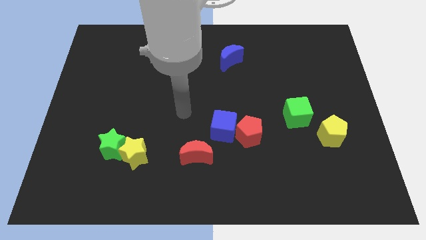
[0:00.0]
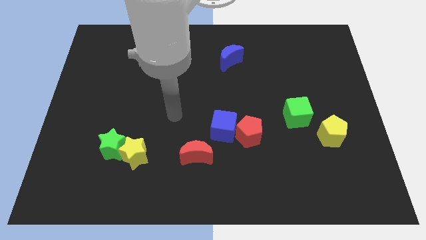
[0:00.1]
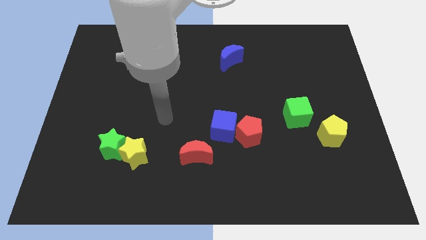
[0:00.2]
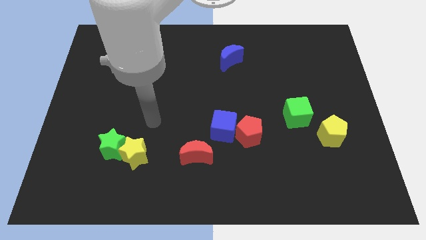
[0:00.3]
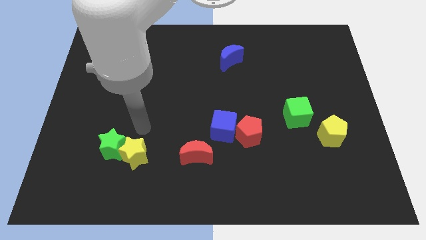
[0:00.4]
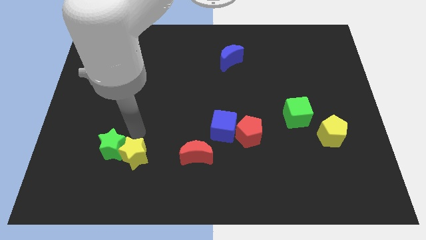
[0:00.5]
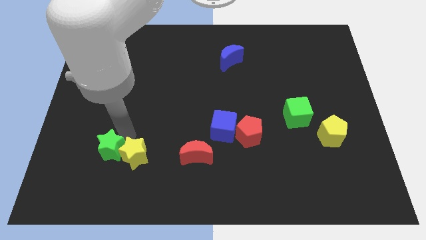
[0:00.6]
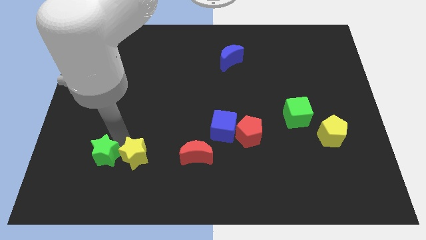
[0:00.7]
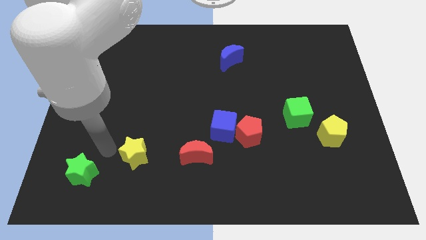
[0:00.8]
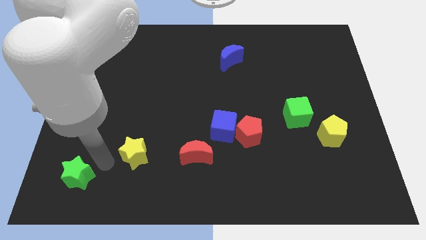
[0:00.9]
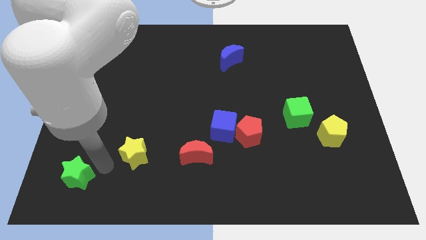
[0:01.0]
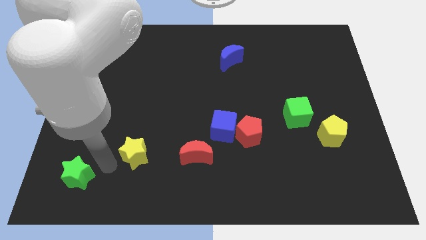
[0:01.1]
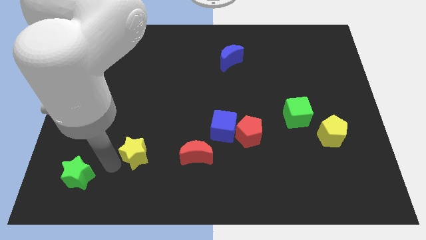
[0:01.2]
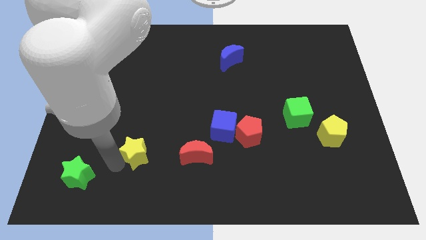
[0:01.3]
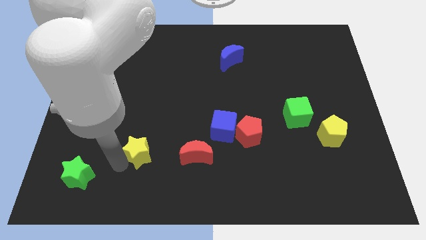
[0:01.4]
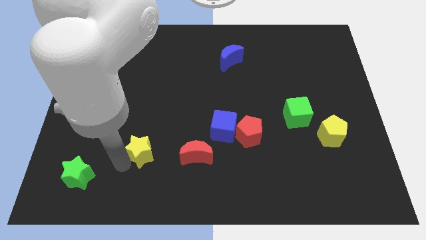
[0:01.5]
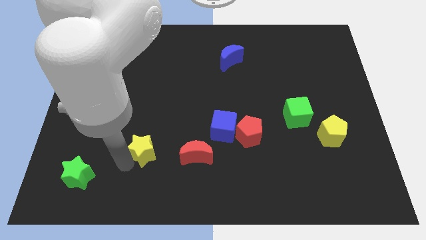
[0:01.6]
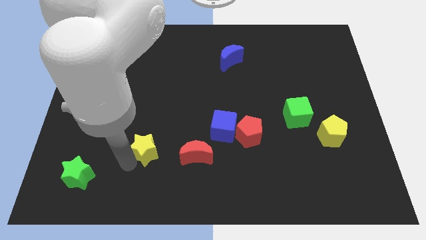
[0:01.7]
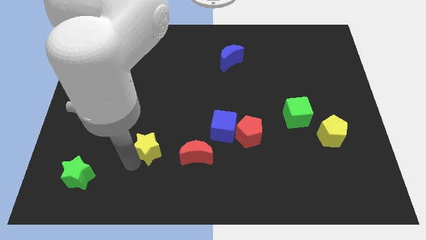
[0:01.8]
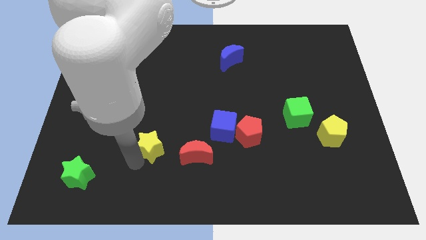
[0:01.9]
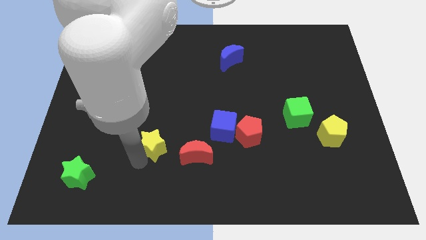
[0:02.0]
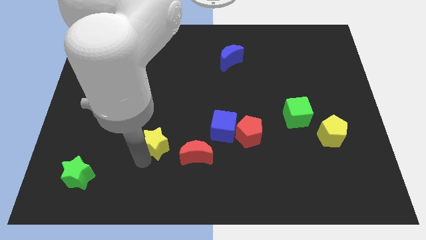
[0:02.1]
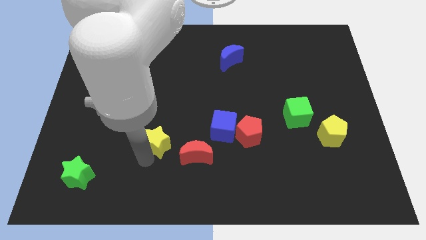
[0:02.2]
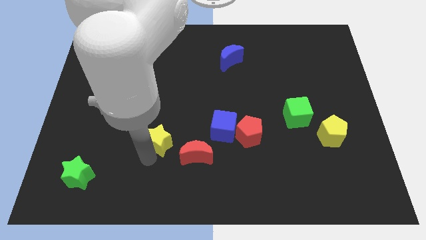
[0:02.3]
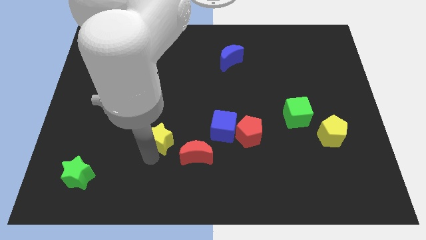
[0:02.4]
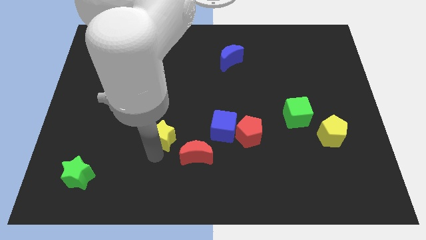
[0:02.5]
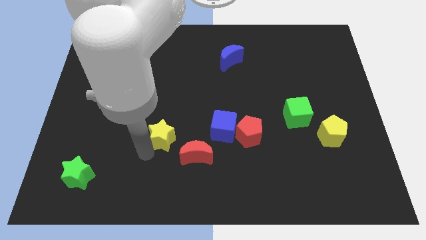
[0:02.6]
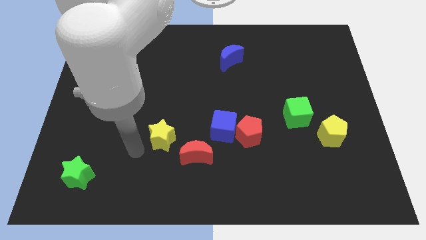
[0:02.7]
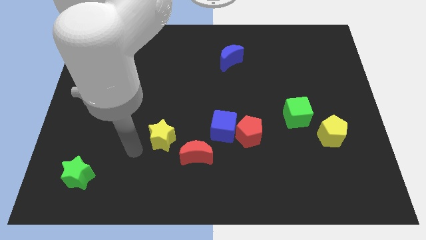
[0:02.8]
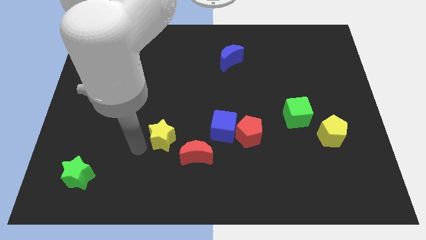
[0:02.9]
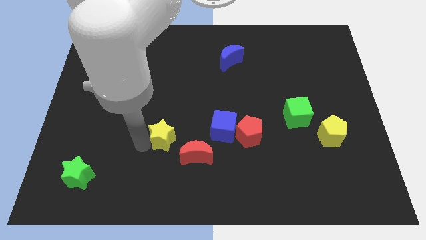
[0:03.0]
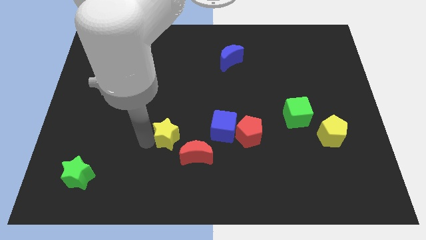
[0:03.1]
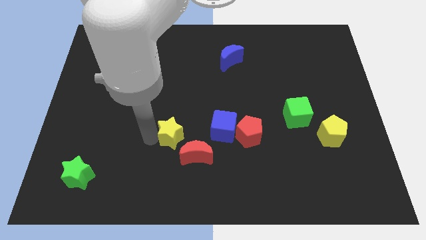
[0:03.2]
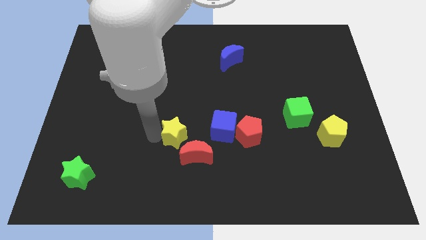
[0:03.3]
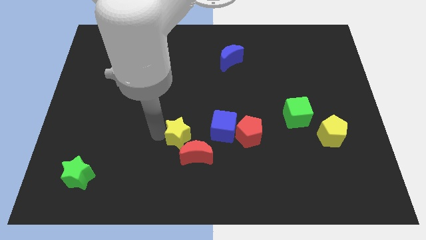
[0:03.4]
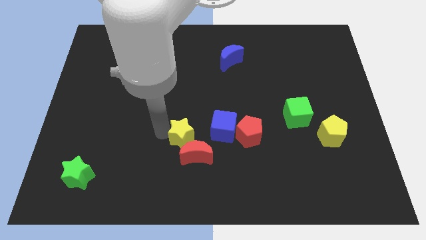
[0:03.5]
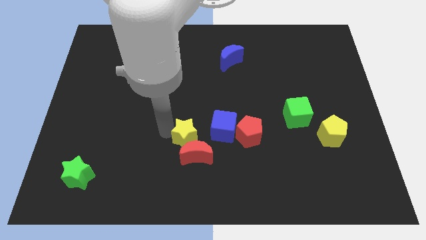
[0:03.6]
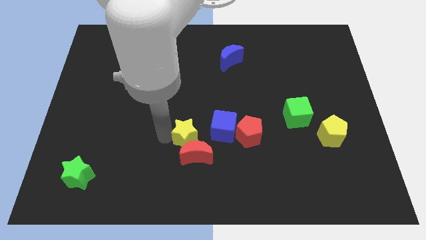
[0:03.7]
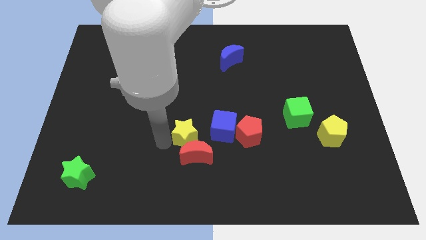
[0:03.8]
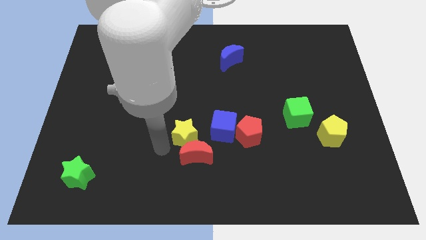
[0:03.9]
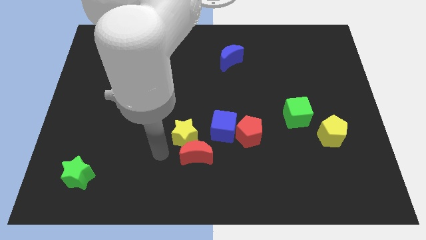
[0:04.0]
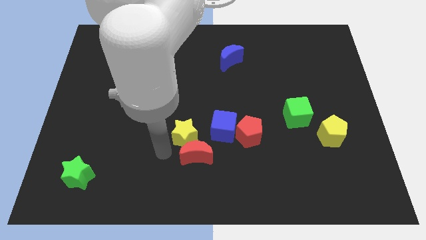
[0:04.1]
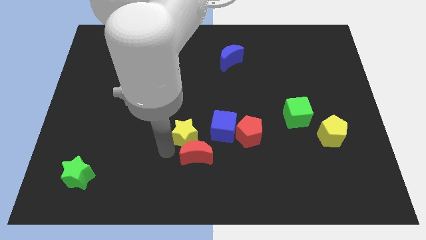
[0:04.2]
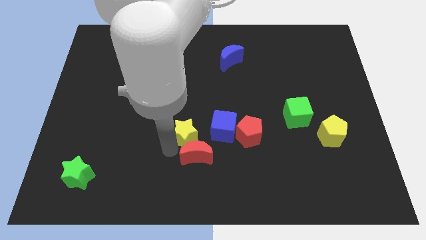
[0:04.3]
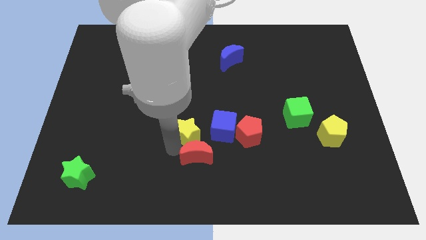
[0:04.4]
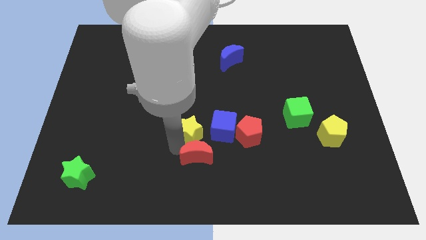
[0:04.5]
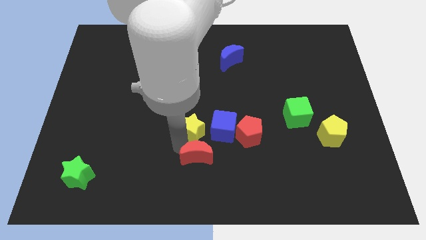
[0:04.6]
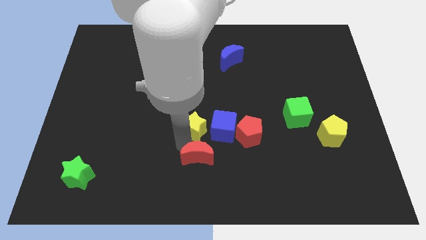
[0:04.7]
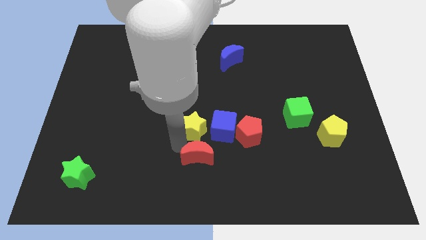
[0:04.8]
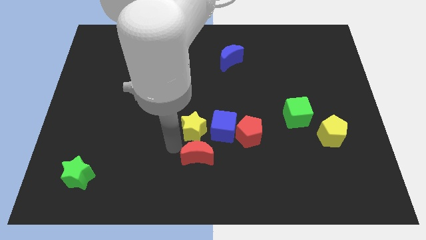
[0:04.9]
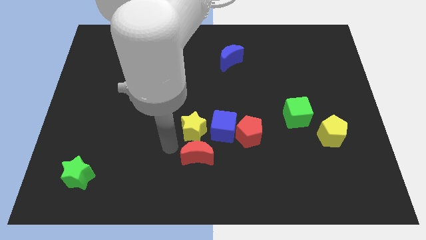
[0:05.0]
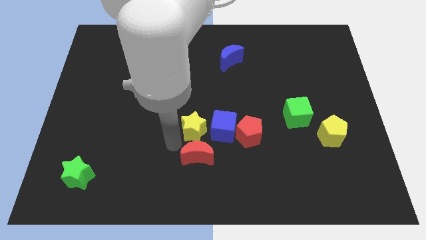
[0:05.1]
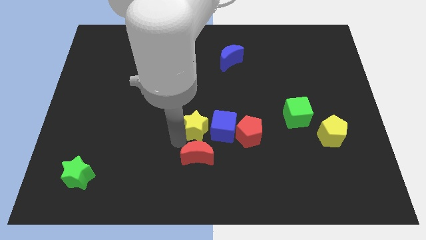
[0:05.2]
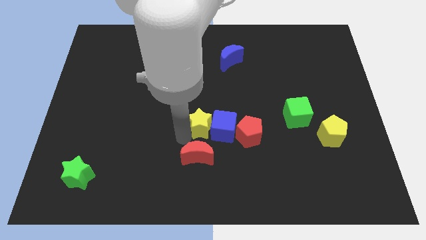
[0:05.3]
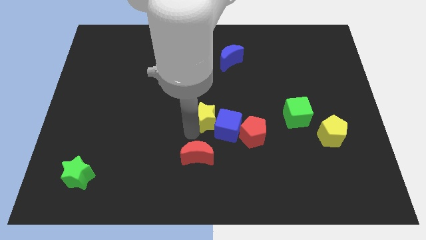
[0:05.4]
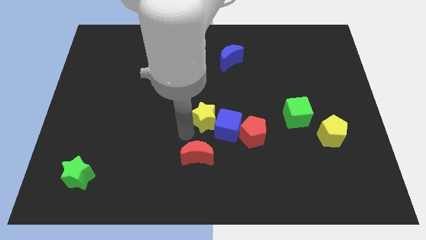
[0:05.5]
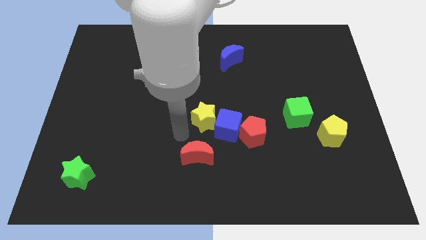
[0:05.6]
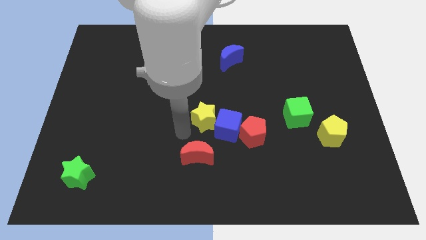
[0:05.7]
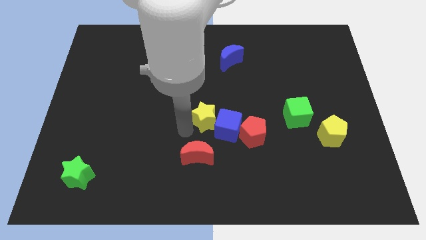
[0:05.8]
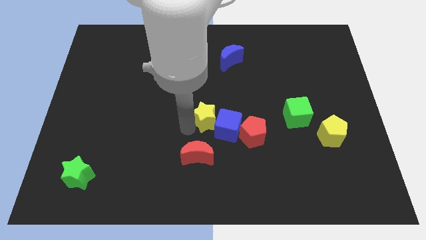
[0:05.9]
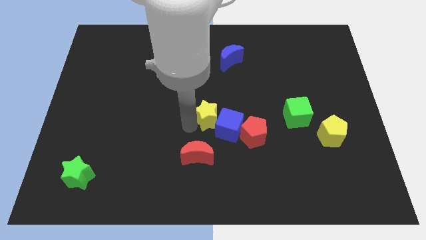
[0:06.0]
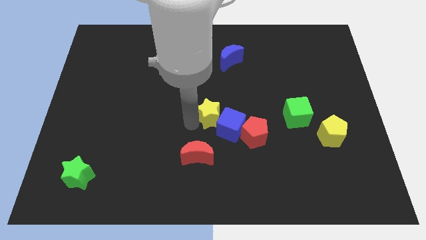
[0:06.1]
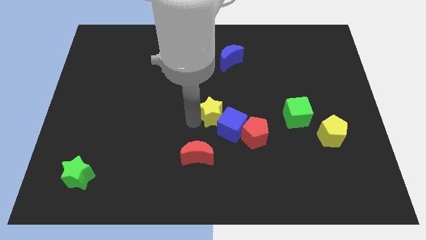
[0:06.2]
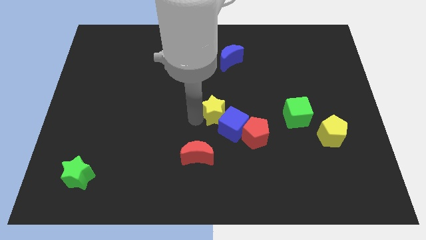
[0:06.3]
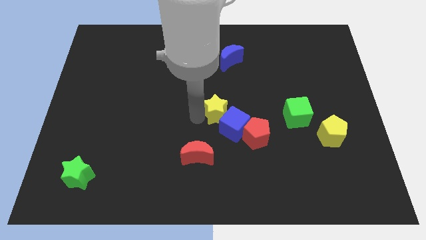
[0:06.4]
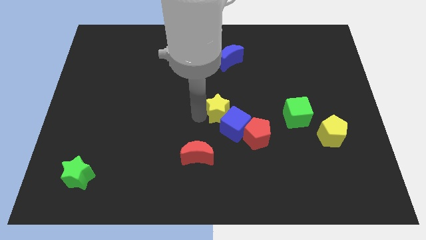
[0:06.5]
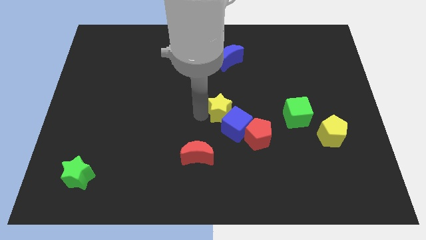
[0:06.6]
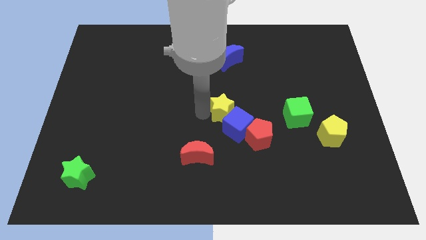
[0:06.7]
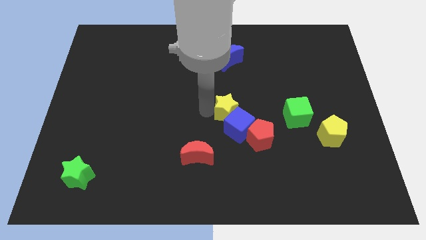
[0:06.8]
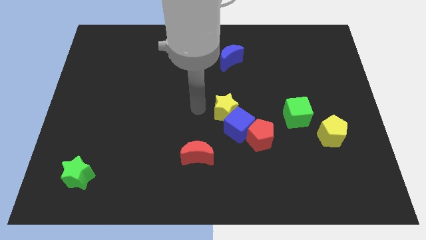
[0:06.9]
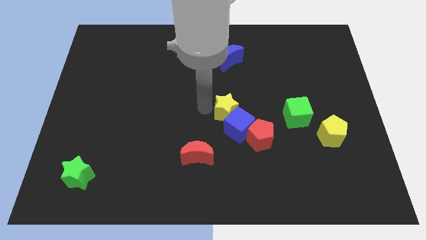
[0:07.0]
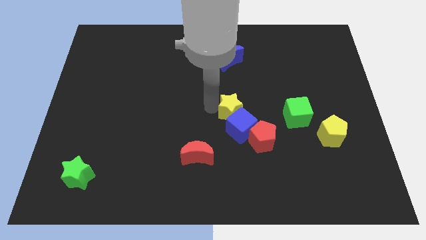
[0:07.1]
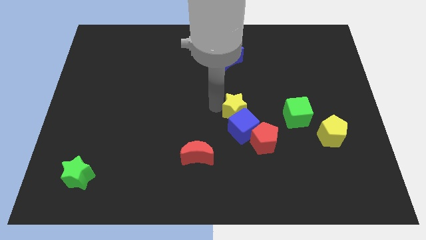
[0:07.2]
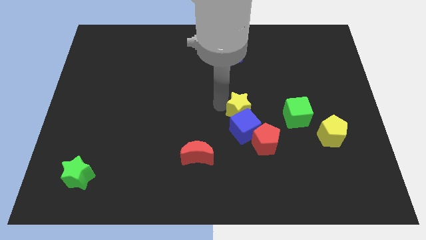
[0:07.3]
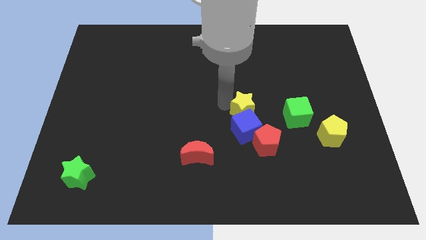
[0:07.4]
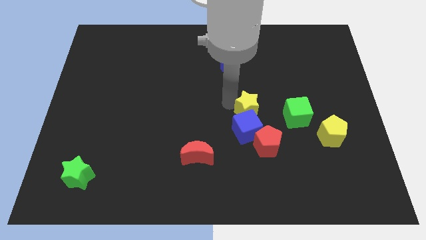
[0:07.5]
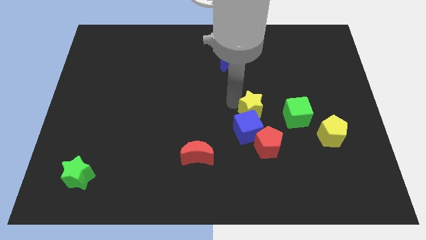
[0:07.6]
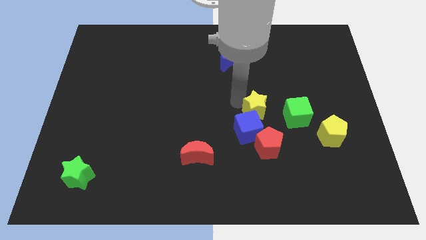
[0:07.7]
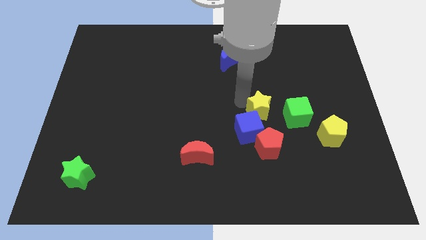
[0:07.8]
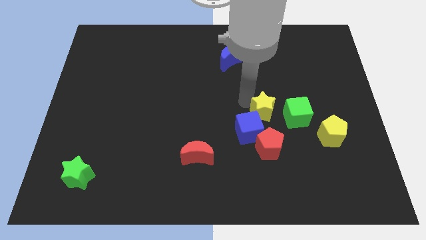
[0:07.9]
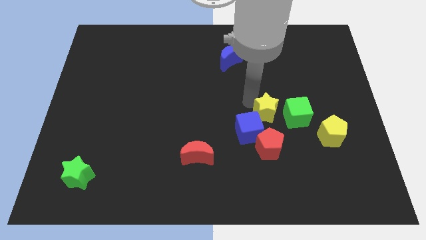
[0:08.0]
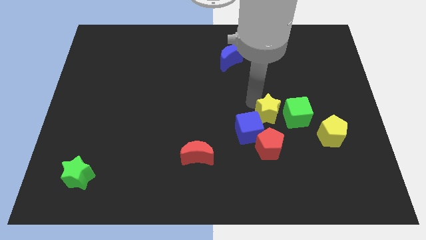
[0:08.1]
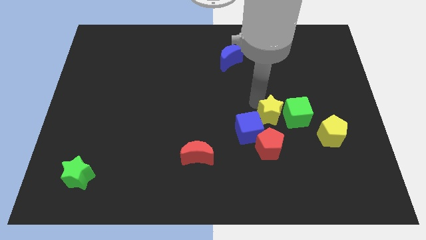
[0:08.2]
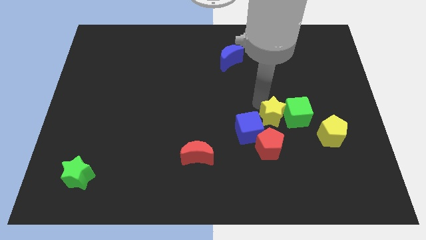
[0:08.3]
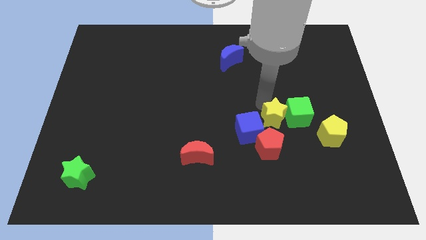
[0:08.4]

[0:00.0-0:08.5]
put the yellow star to the top right of the red pentagon
